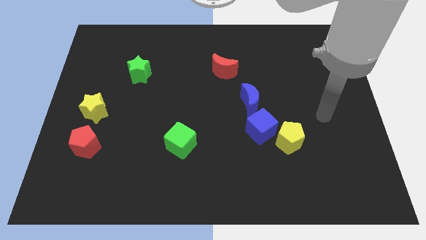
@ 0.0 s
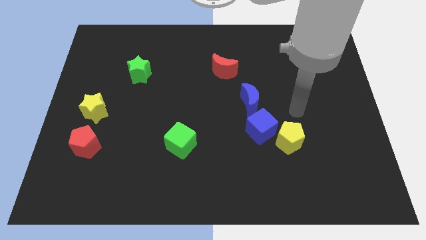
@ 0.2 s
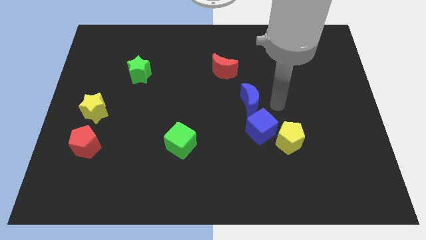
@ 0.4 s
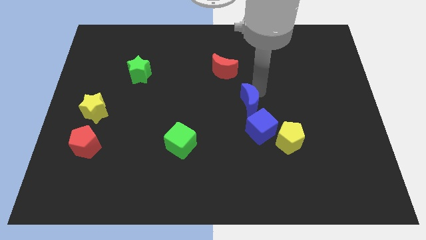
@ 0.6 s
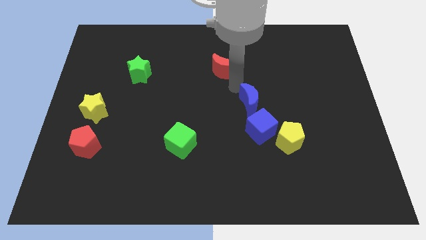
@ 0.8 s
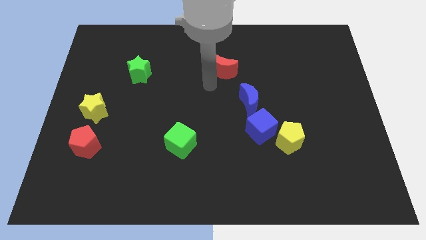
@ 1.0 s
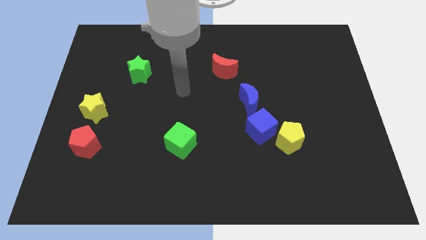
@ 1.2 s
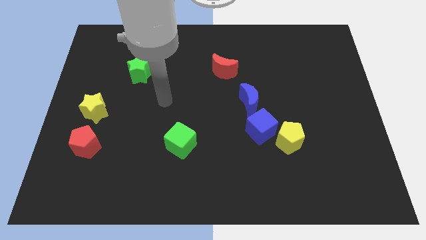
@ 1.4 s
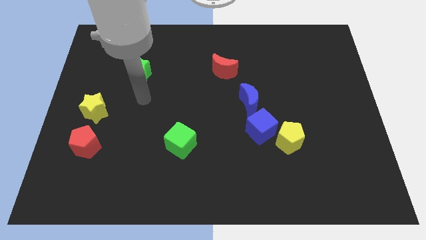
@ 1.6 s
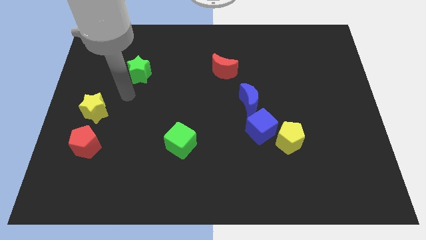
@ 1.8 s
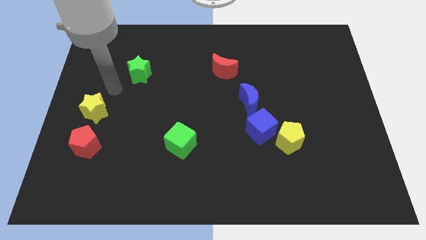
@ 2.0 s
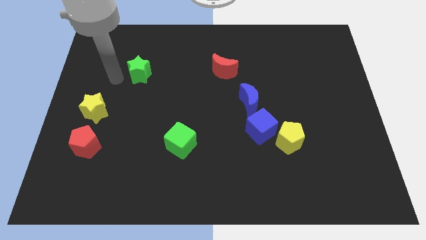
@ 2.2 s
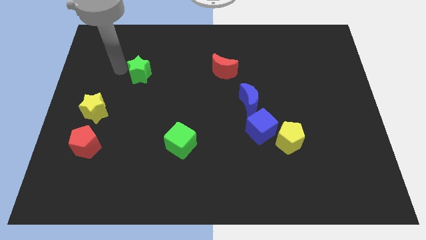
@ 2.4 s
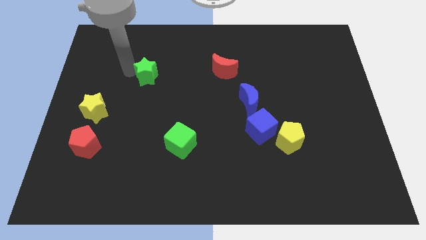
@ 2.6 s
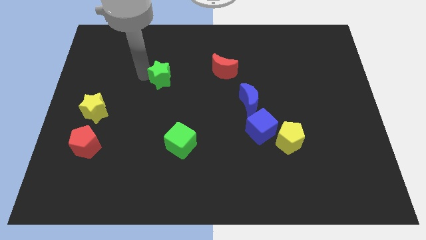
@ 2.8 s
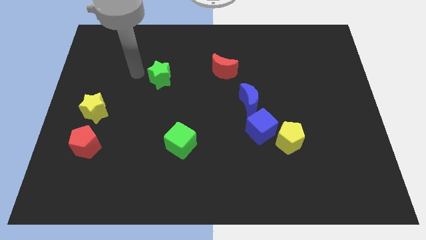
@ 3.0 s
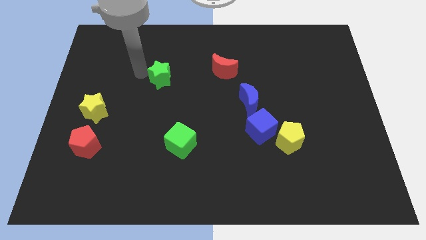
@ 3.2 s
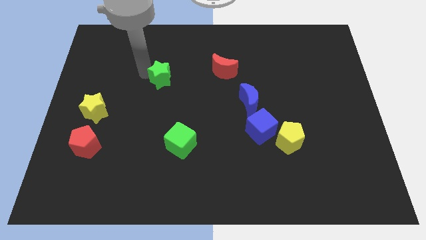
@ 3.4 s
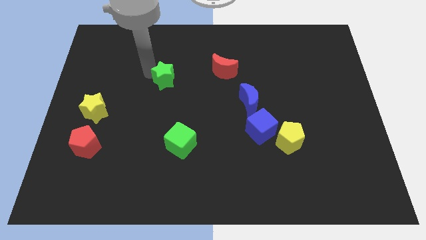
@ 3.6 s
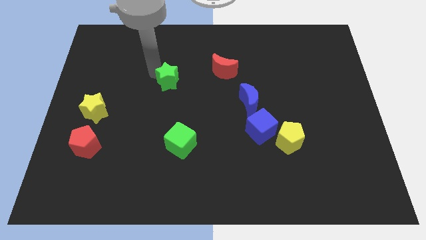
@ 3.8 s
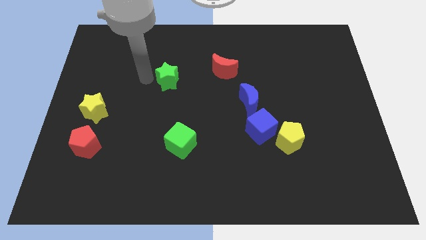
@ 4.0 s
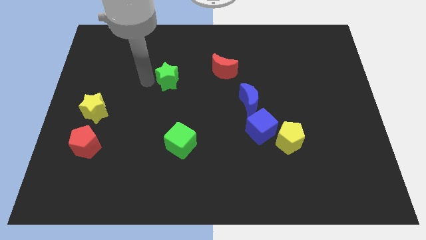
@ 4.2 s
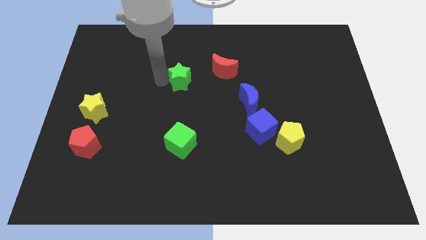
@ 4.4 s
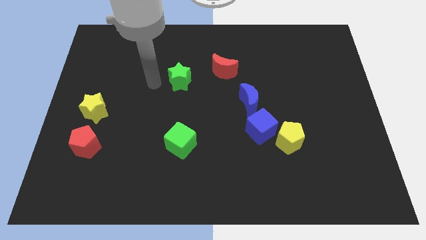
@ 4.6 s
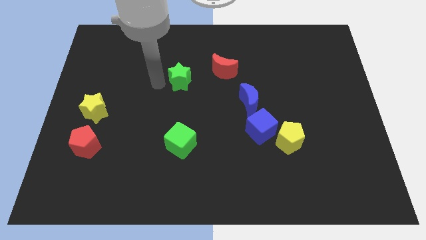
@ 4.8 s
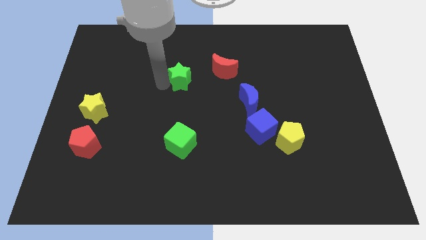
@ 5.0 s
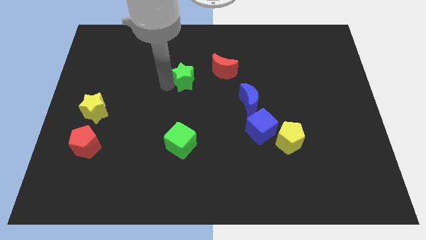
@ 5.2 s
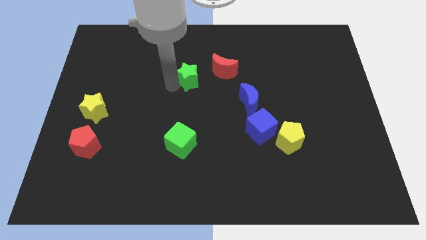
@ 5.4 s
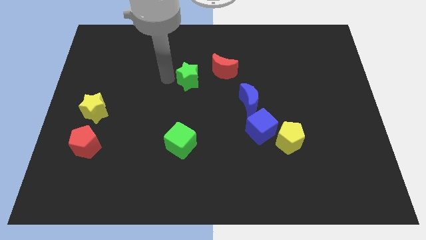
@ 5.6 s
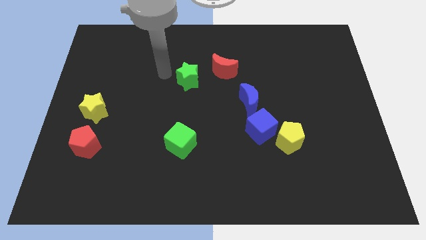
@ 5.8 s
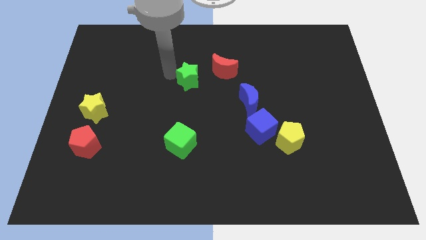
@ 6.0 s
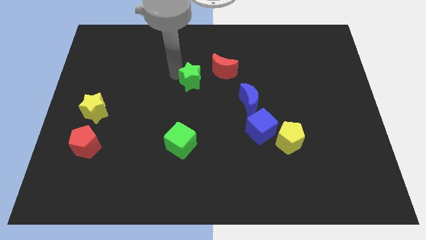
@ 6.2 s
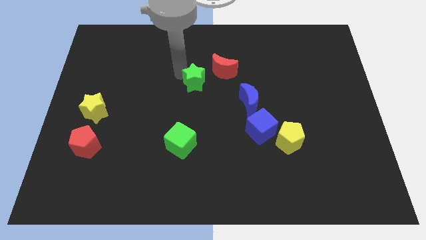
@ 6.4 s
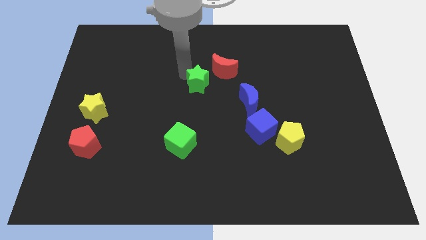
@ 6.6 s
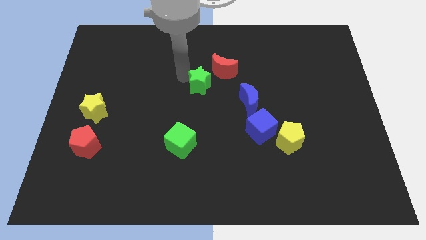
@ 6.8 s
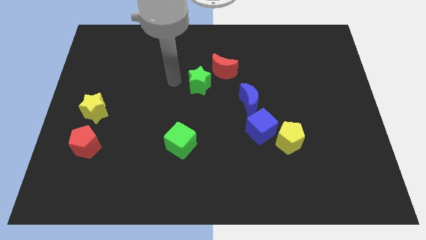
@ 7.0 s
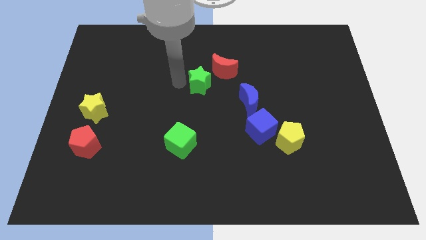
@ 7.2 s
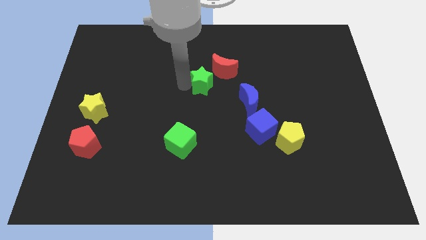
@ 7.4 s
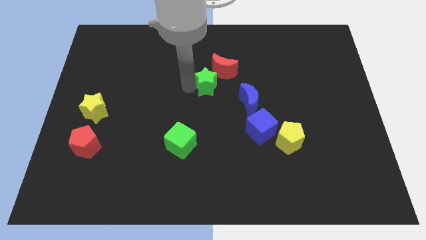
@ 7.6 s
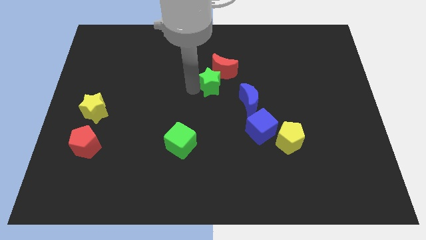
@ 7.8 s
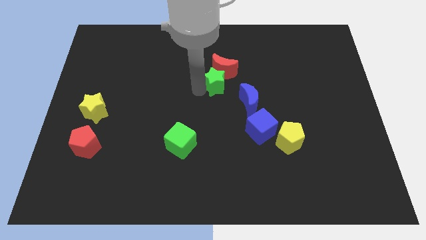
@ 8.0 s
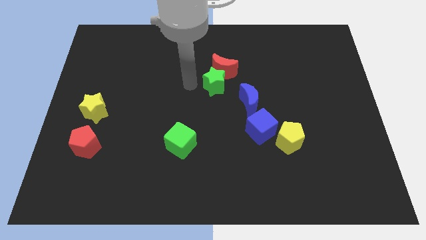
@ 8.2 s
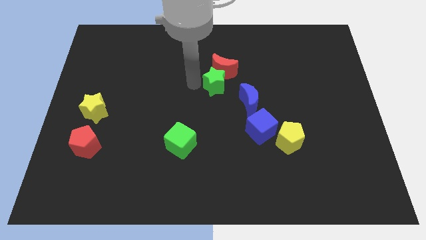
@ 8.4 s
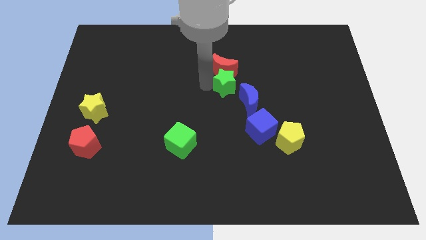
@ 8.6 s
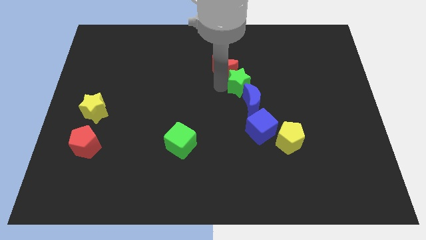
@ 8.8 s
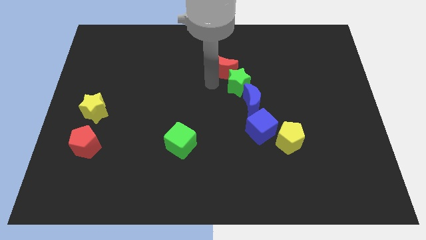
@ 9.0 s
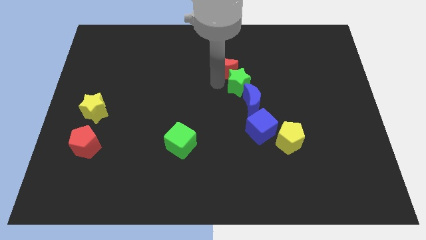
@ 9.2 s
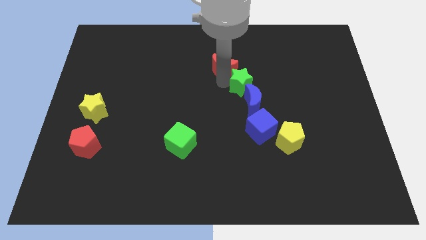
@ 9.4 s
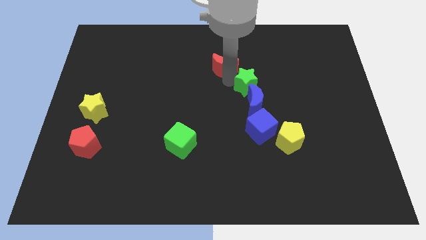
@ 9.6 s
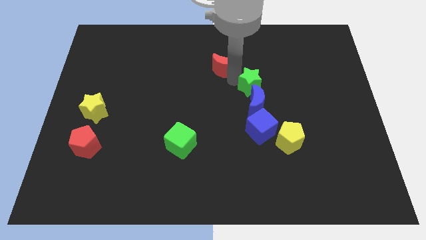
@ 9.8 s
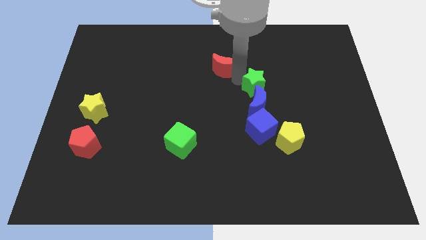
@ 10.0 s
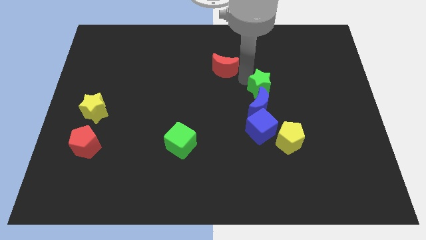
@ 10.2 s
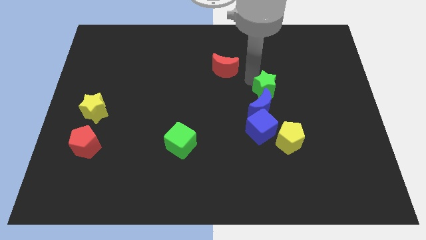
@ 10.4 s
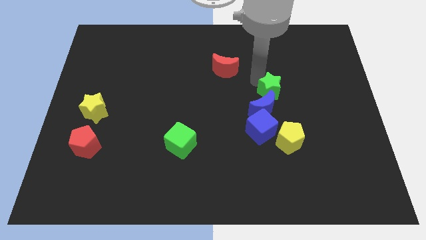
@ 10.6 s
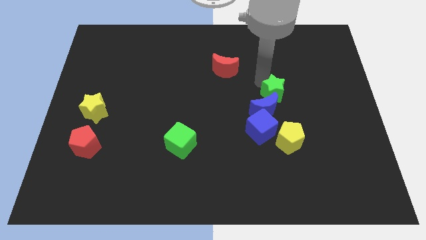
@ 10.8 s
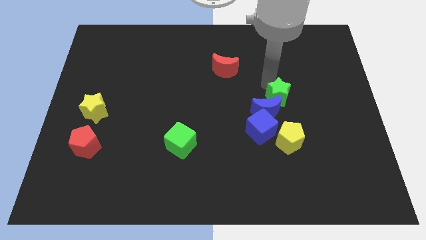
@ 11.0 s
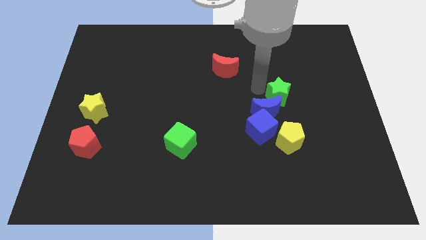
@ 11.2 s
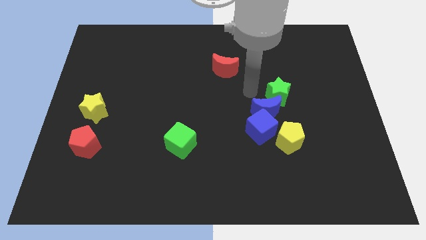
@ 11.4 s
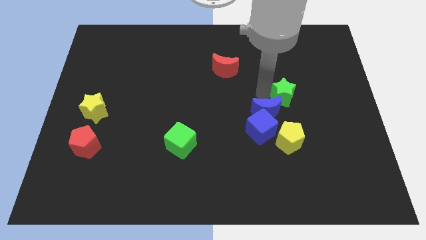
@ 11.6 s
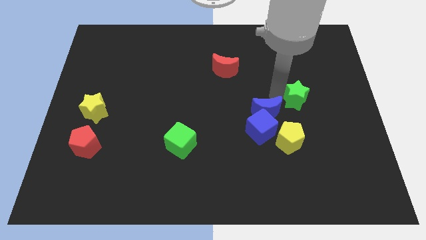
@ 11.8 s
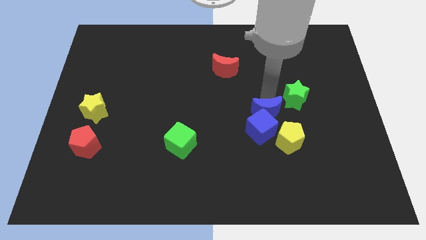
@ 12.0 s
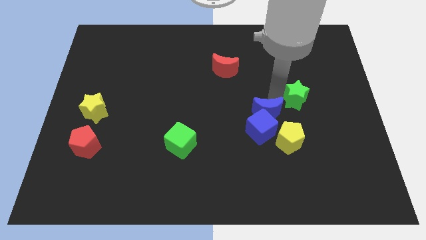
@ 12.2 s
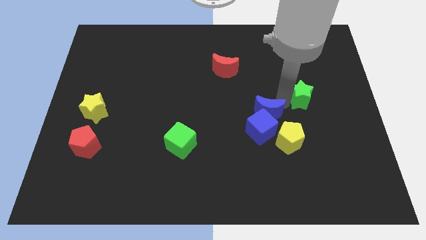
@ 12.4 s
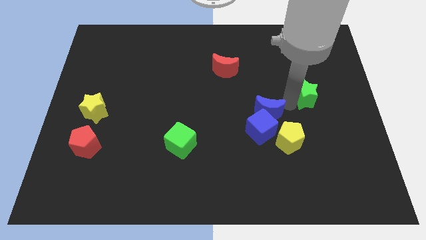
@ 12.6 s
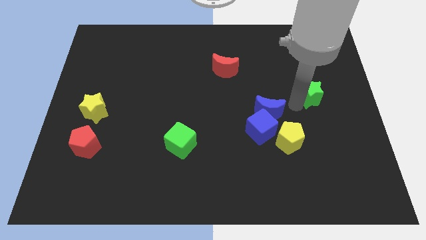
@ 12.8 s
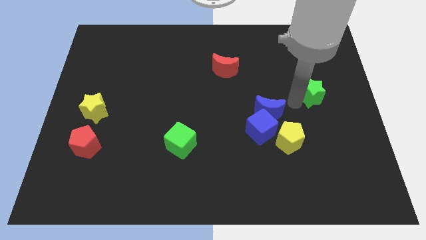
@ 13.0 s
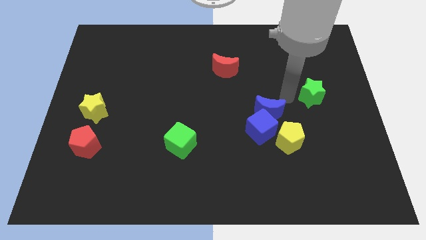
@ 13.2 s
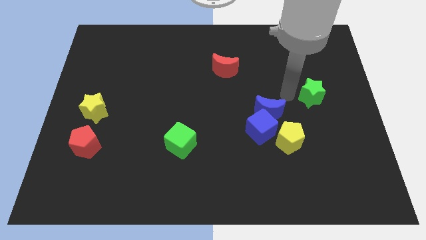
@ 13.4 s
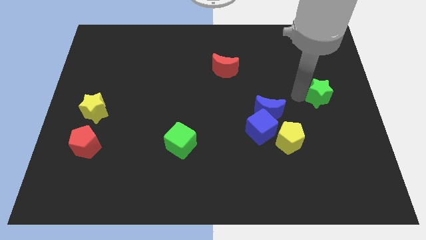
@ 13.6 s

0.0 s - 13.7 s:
push the green star to the right side
